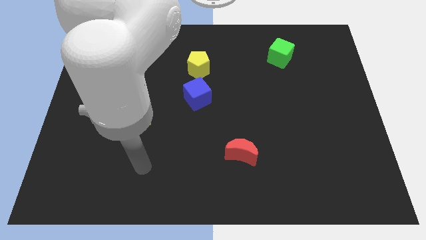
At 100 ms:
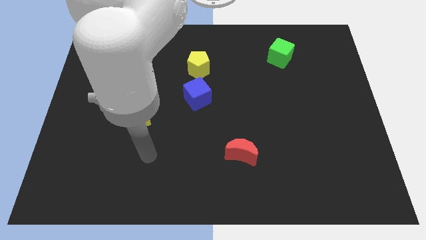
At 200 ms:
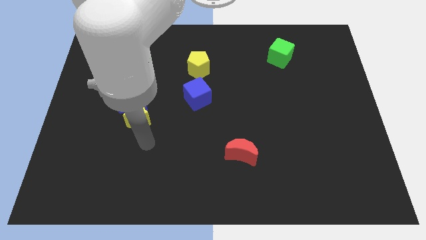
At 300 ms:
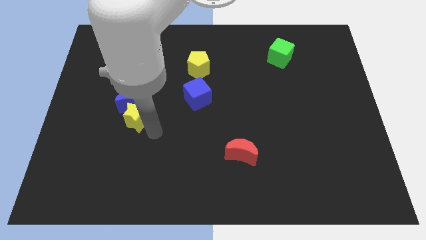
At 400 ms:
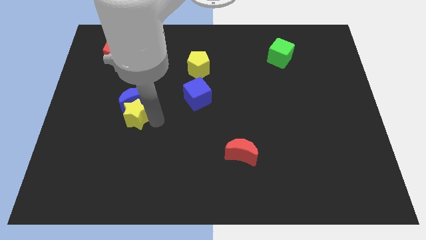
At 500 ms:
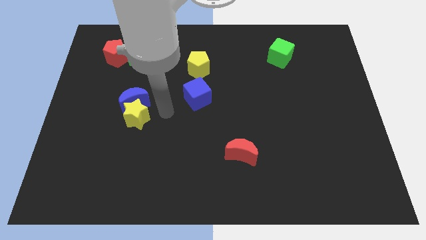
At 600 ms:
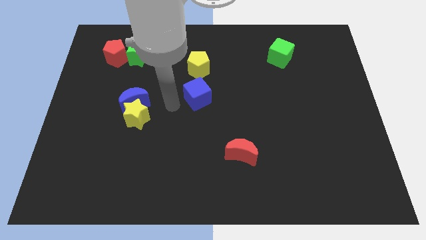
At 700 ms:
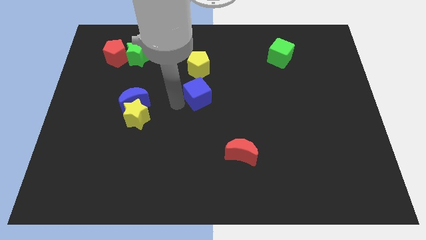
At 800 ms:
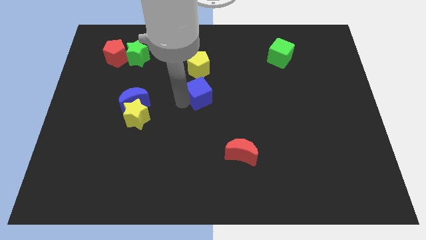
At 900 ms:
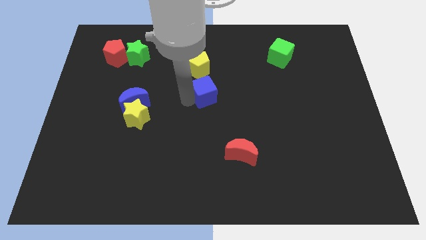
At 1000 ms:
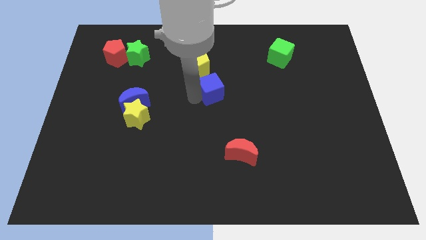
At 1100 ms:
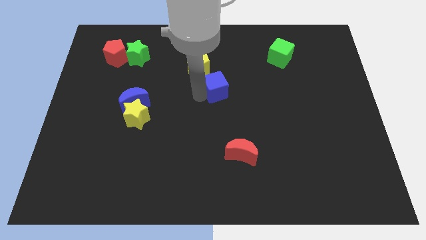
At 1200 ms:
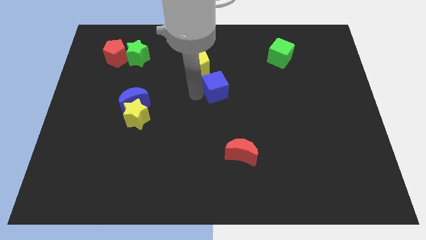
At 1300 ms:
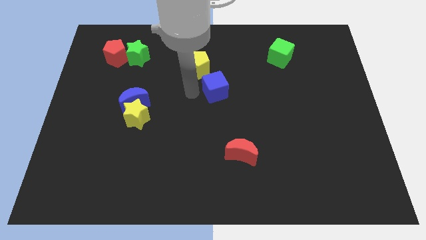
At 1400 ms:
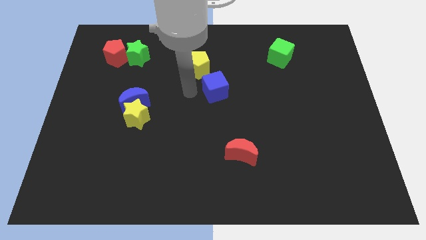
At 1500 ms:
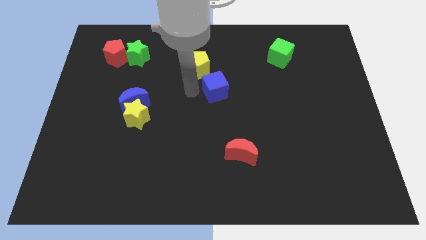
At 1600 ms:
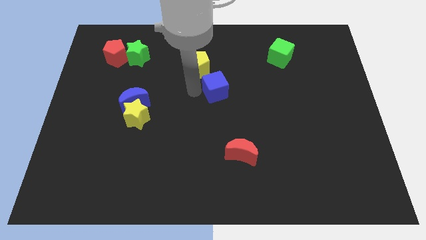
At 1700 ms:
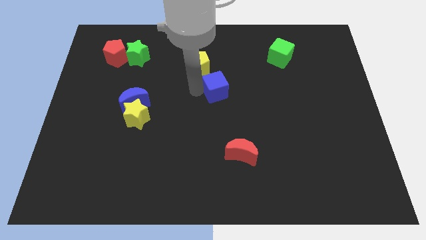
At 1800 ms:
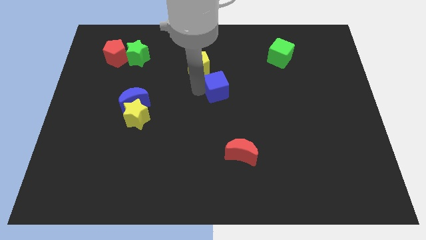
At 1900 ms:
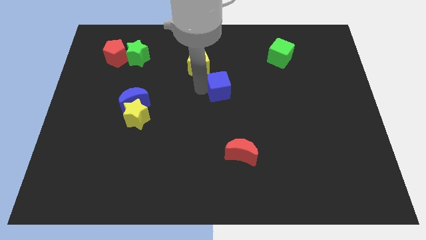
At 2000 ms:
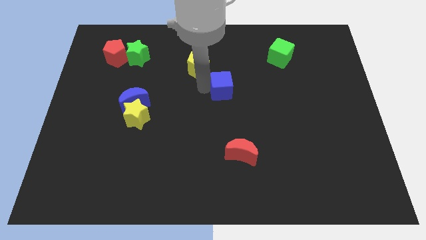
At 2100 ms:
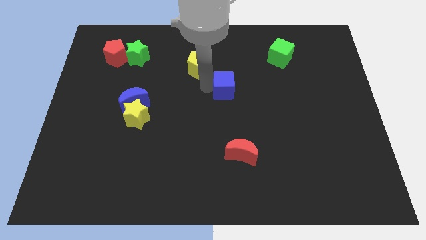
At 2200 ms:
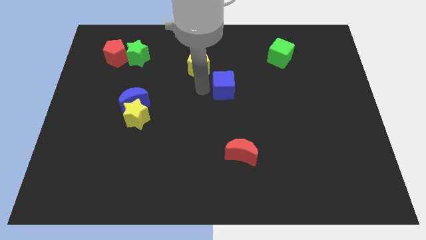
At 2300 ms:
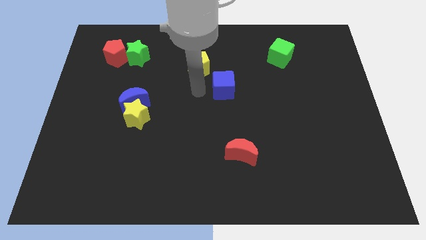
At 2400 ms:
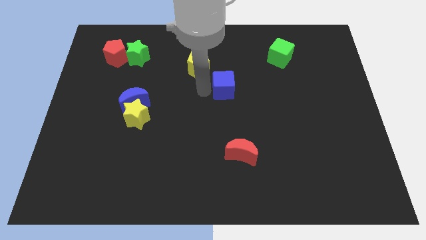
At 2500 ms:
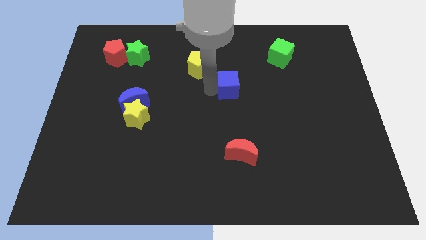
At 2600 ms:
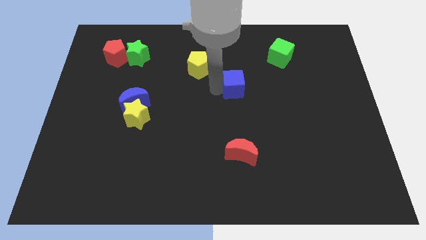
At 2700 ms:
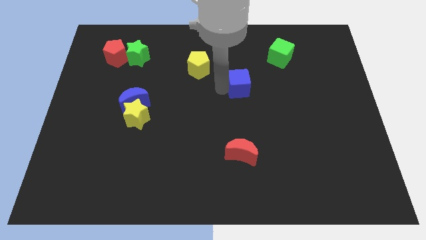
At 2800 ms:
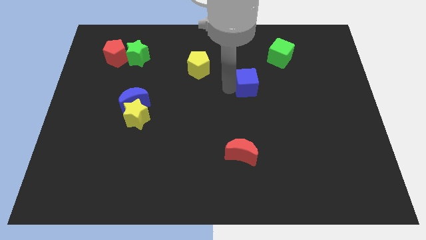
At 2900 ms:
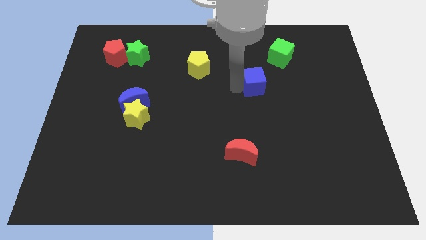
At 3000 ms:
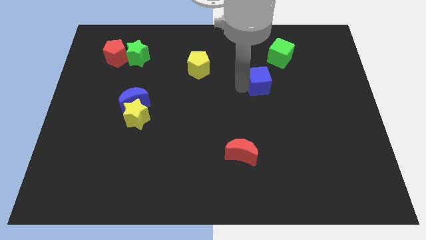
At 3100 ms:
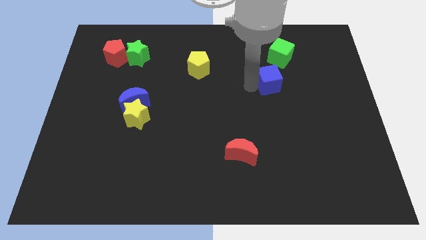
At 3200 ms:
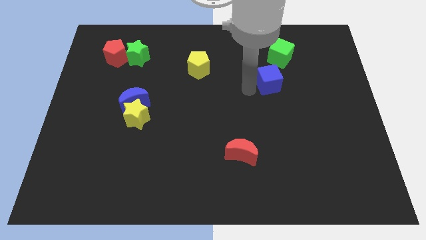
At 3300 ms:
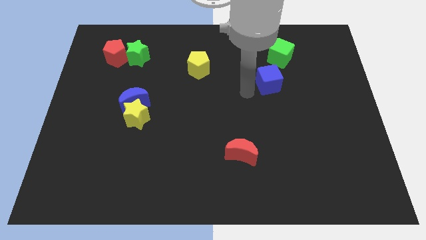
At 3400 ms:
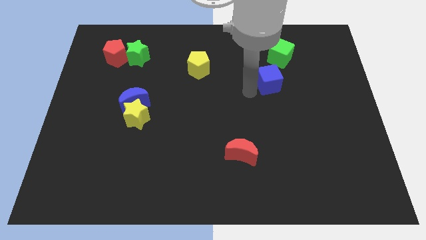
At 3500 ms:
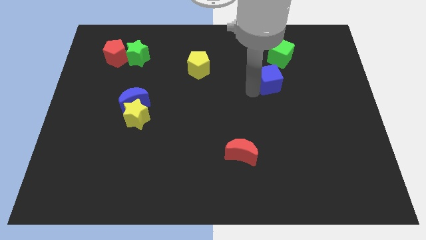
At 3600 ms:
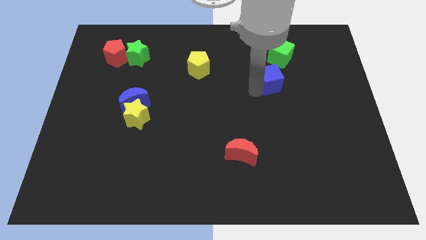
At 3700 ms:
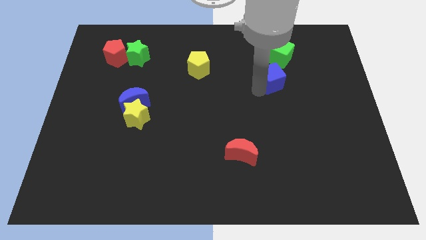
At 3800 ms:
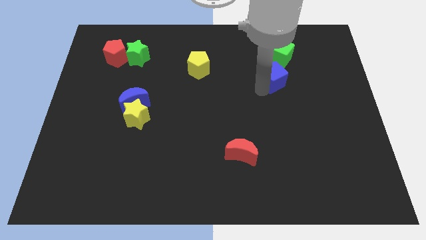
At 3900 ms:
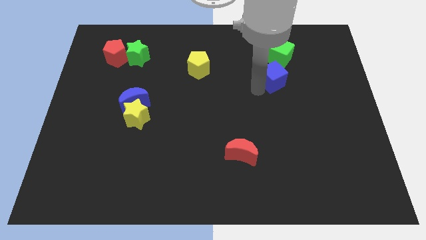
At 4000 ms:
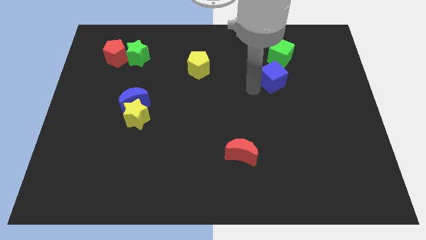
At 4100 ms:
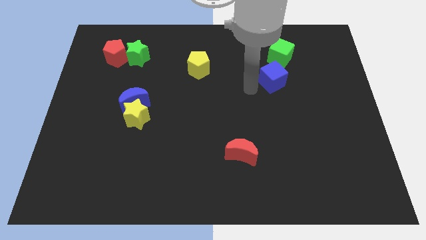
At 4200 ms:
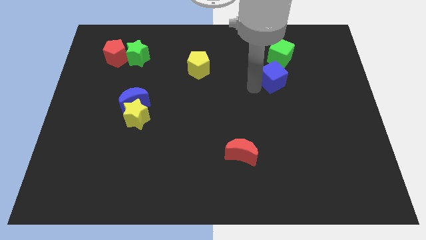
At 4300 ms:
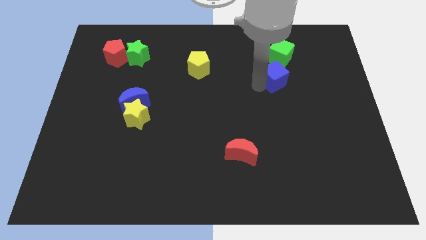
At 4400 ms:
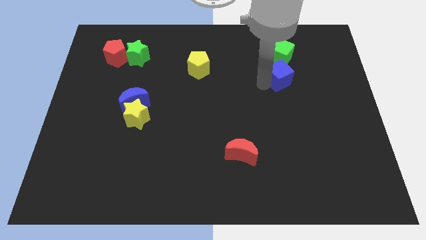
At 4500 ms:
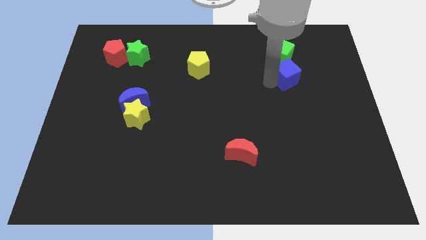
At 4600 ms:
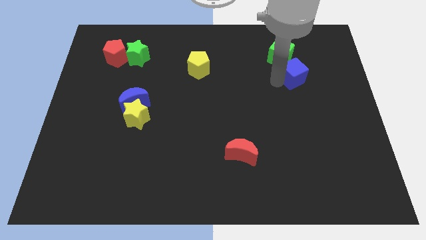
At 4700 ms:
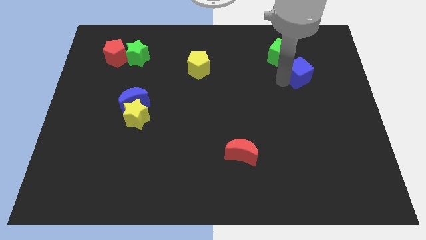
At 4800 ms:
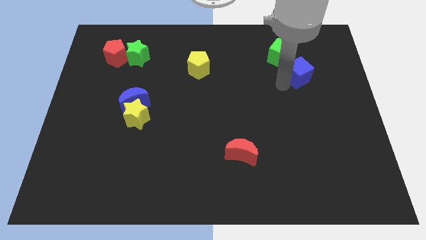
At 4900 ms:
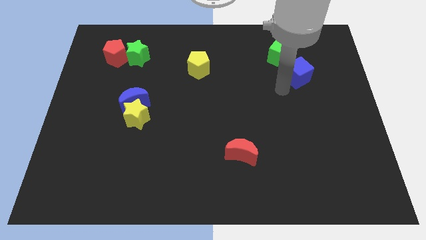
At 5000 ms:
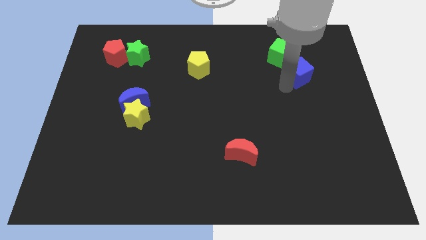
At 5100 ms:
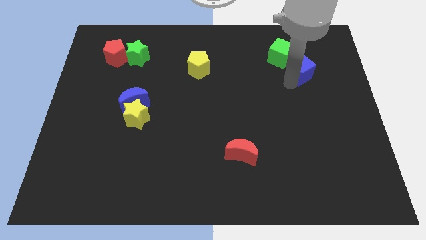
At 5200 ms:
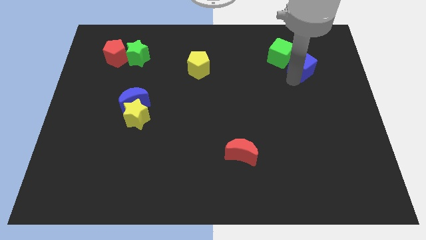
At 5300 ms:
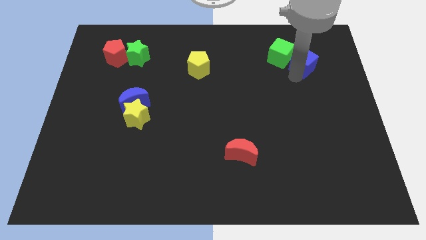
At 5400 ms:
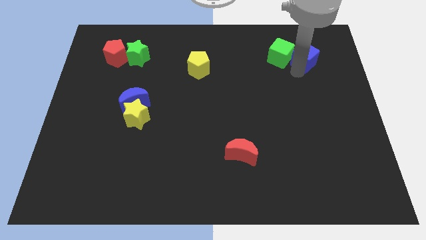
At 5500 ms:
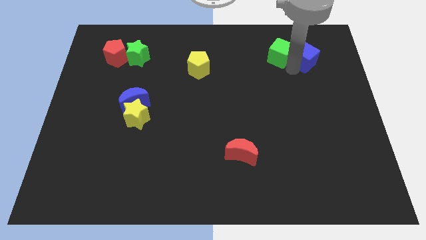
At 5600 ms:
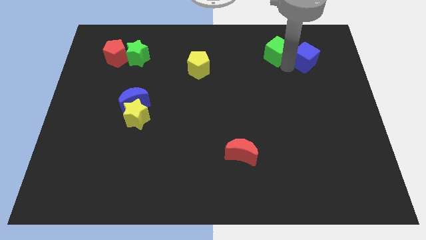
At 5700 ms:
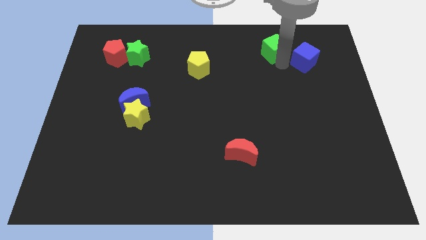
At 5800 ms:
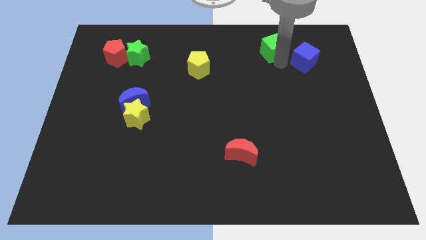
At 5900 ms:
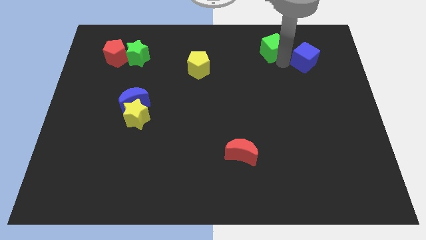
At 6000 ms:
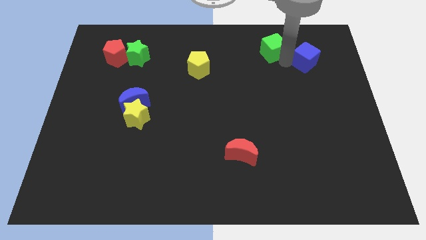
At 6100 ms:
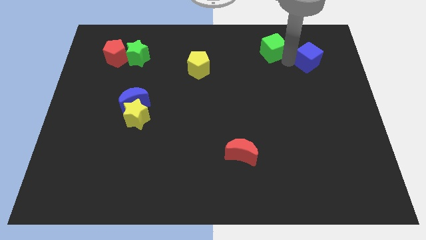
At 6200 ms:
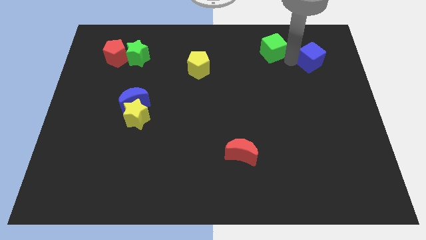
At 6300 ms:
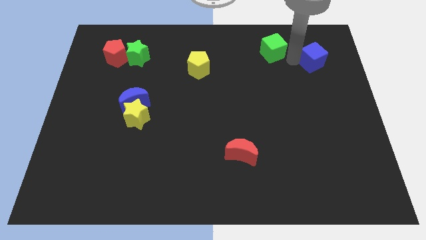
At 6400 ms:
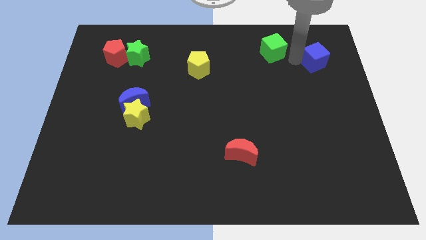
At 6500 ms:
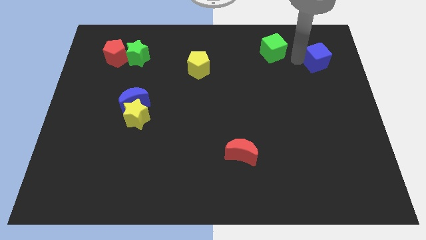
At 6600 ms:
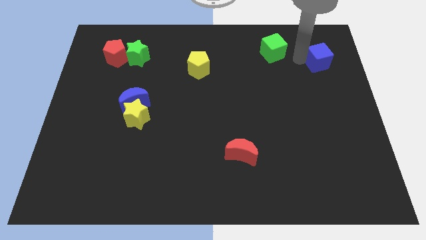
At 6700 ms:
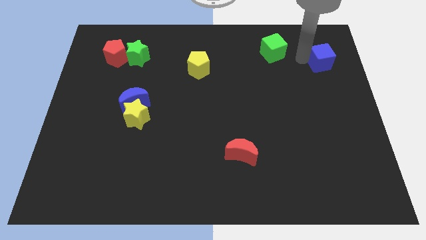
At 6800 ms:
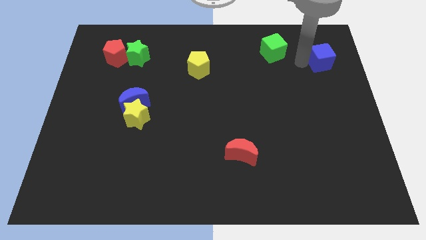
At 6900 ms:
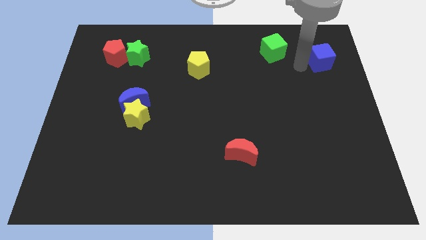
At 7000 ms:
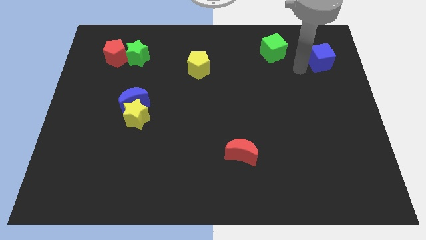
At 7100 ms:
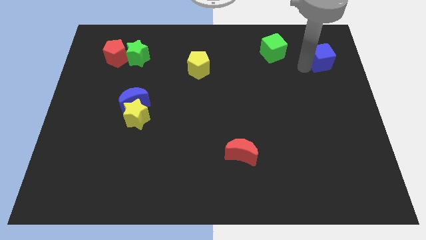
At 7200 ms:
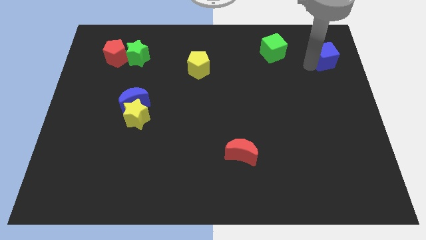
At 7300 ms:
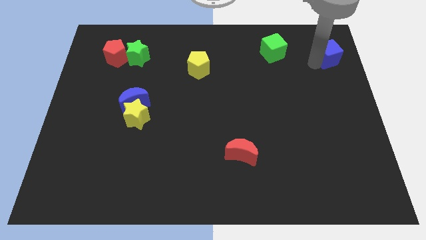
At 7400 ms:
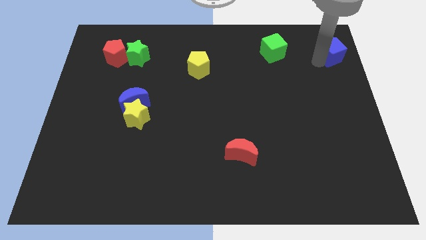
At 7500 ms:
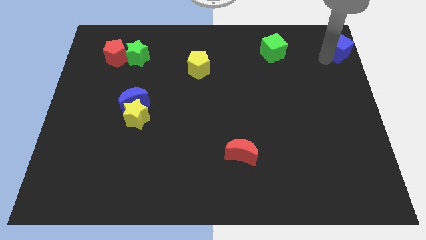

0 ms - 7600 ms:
put the blue cube to the top right
